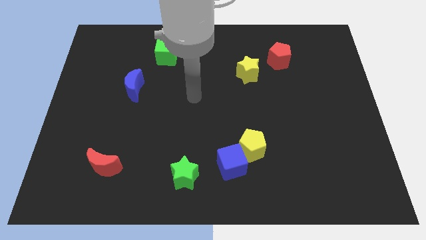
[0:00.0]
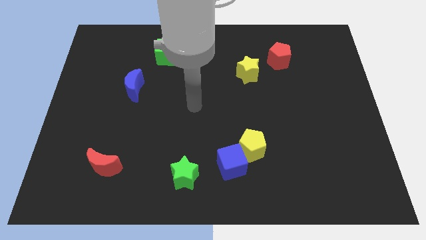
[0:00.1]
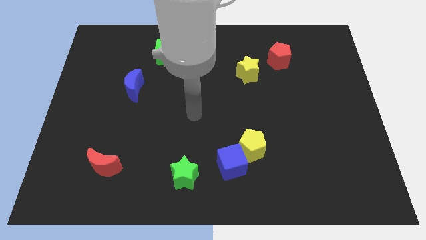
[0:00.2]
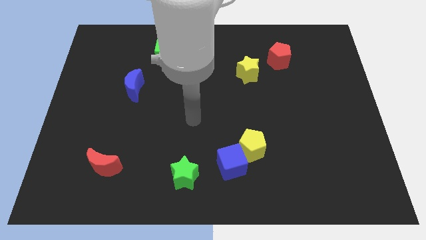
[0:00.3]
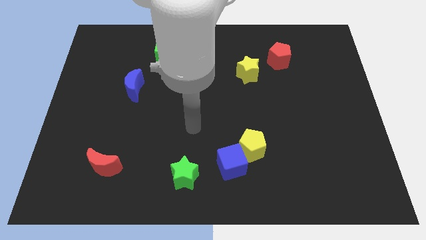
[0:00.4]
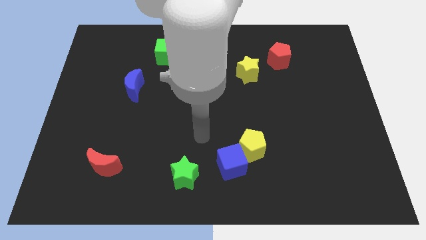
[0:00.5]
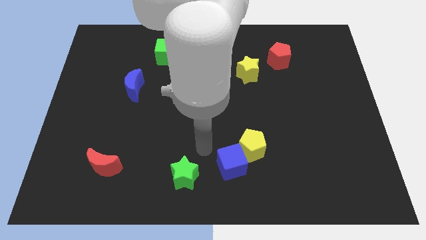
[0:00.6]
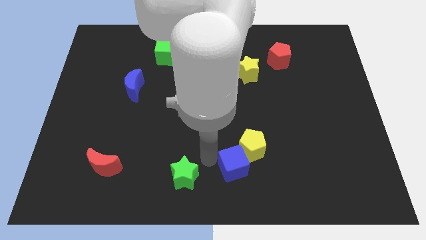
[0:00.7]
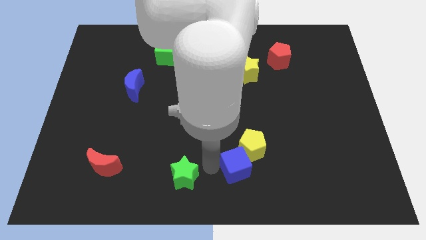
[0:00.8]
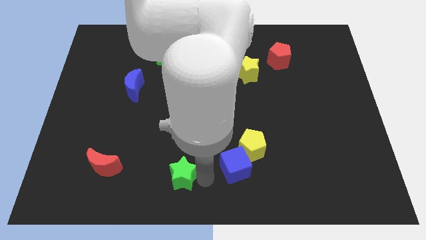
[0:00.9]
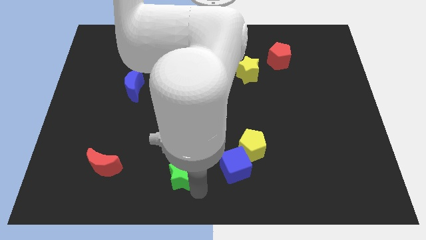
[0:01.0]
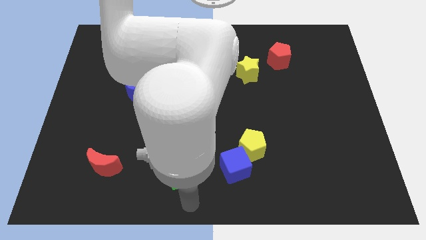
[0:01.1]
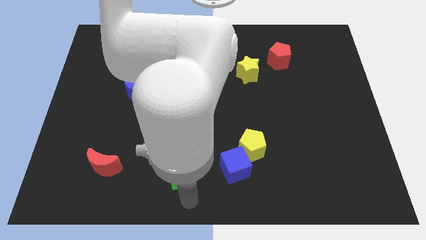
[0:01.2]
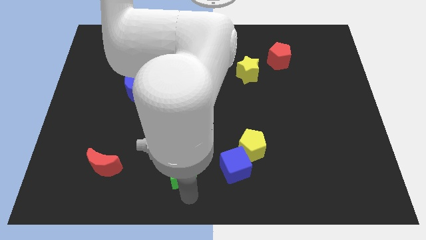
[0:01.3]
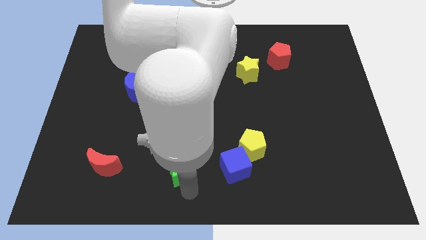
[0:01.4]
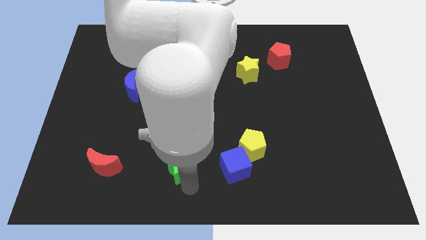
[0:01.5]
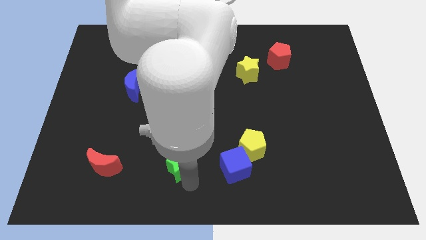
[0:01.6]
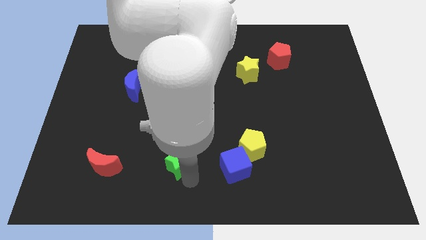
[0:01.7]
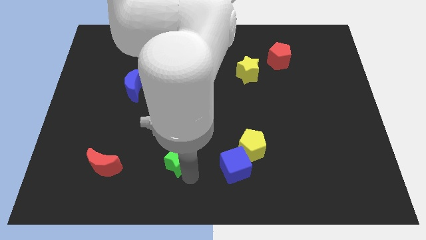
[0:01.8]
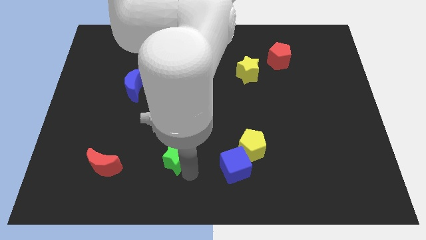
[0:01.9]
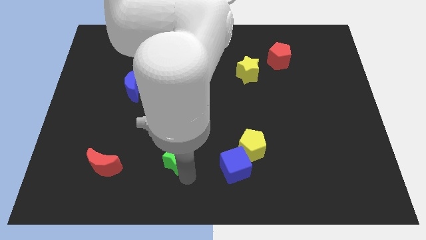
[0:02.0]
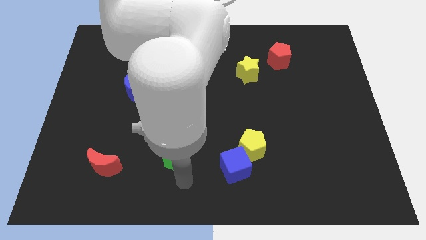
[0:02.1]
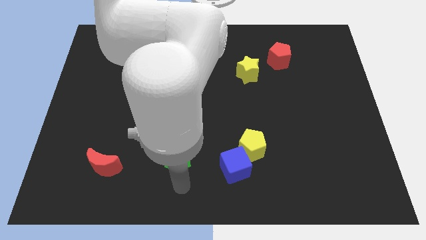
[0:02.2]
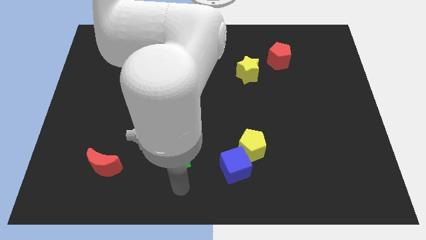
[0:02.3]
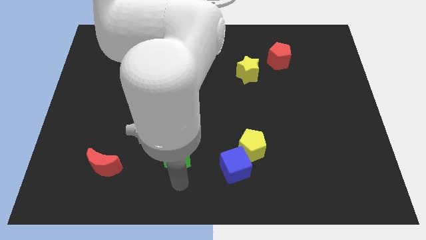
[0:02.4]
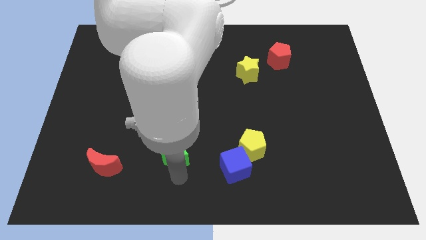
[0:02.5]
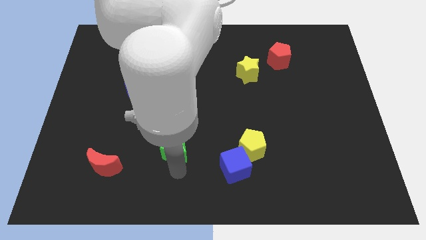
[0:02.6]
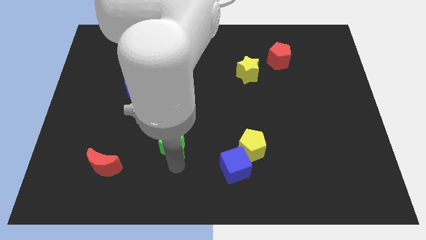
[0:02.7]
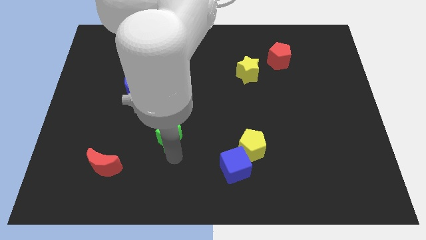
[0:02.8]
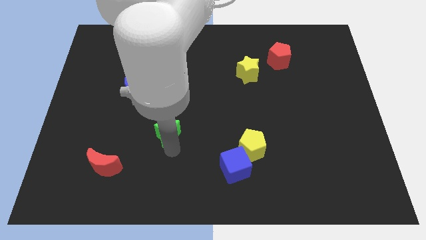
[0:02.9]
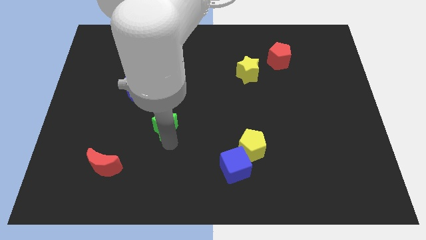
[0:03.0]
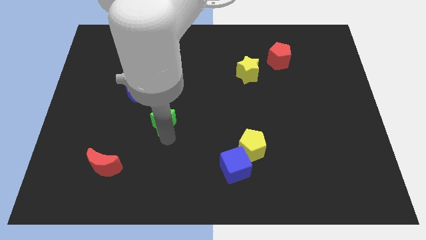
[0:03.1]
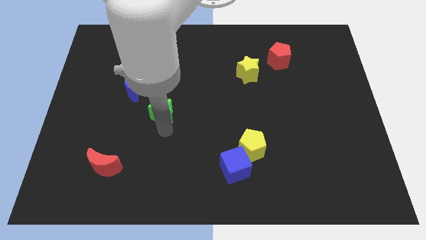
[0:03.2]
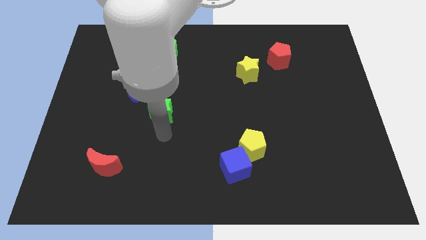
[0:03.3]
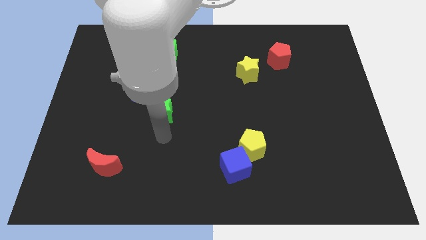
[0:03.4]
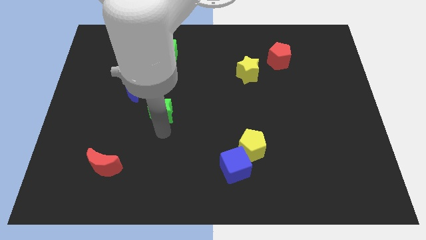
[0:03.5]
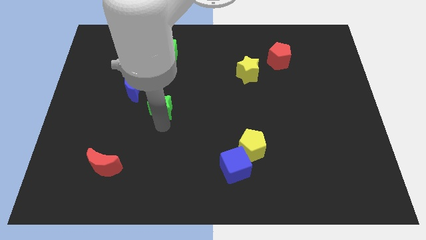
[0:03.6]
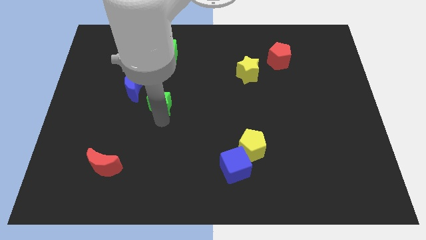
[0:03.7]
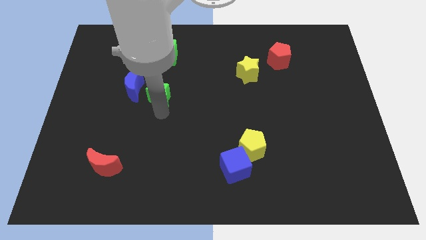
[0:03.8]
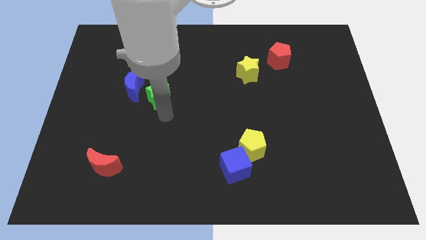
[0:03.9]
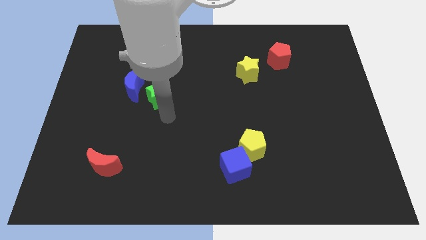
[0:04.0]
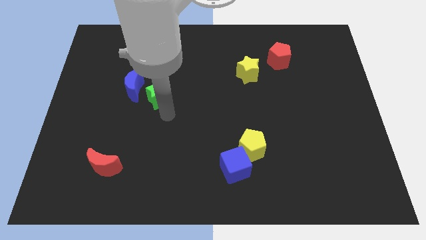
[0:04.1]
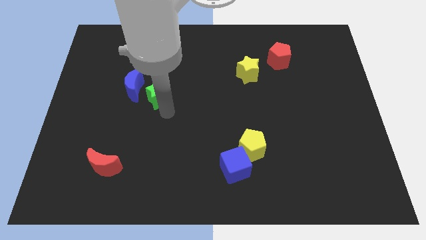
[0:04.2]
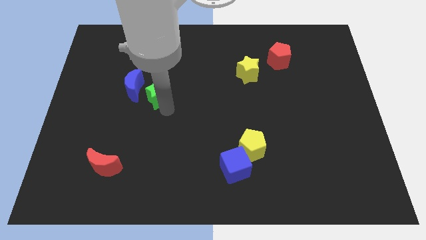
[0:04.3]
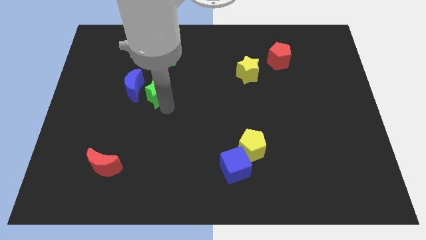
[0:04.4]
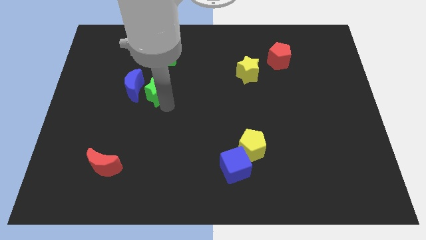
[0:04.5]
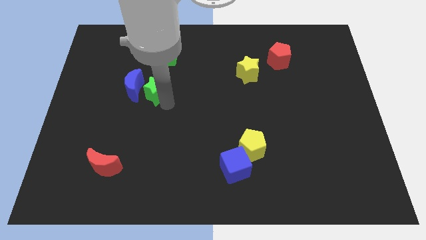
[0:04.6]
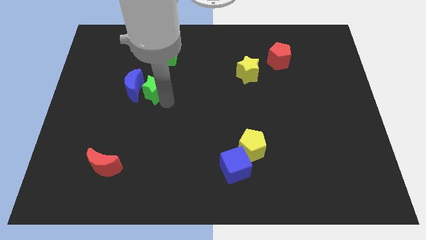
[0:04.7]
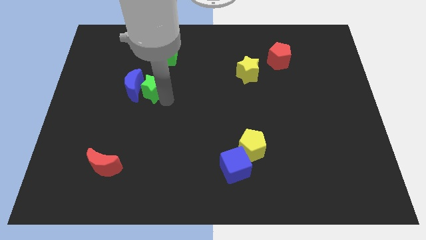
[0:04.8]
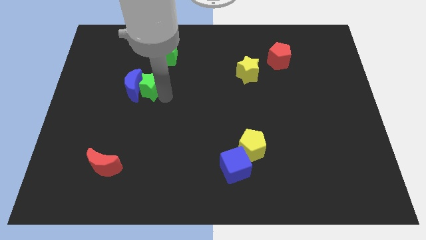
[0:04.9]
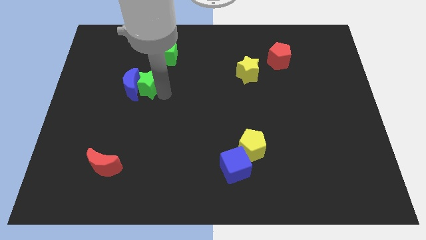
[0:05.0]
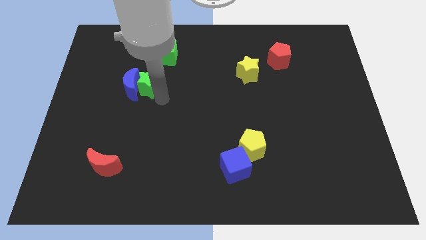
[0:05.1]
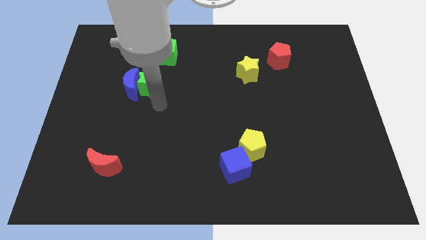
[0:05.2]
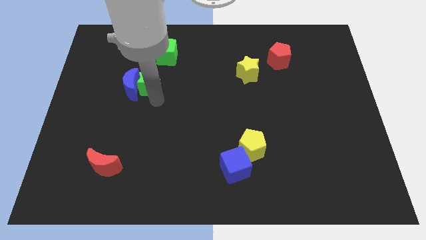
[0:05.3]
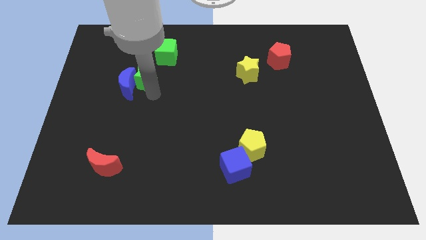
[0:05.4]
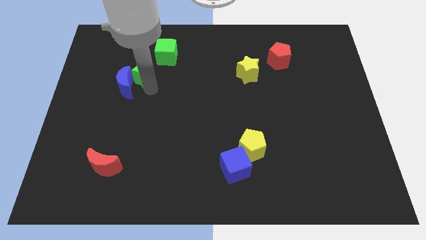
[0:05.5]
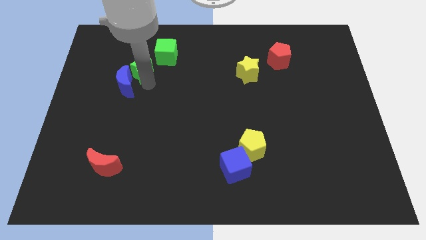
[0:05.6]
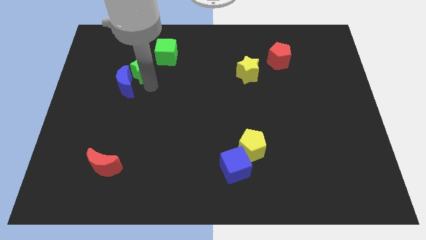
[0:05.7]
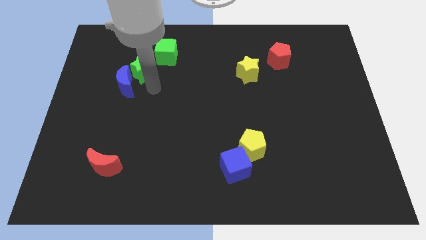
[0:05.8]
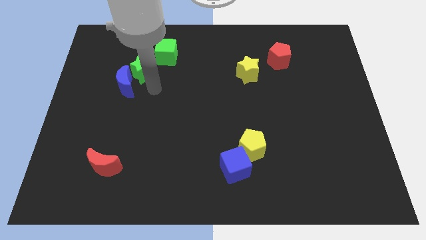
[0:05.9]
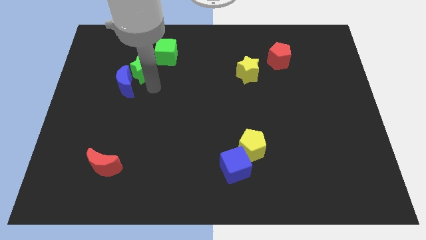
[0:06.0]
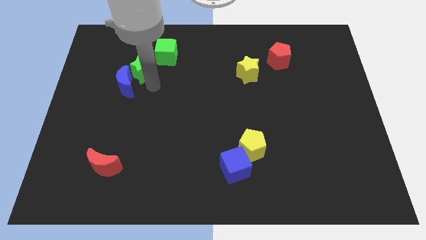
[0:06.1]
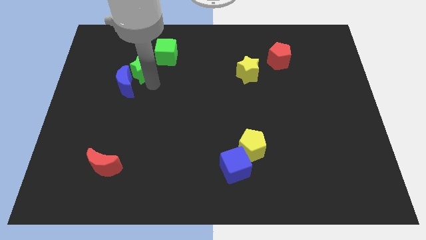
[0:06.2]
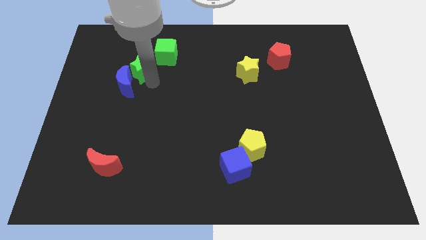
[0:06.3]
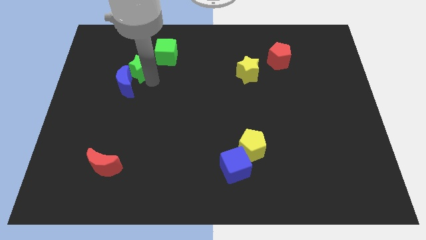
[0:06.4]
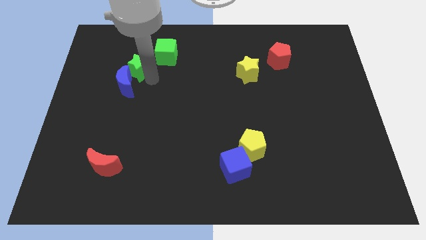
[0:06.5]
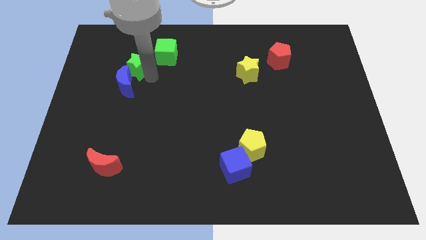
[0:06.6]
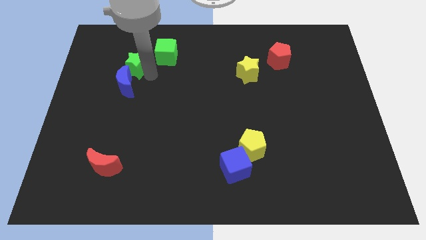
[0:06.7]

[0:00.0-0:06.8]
move the green star to the left of the green cube
